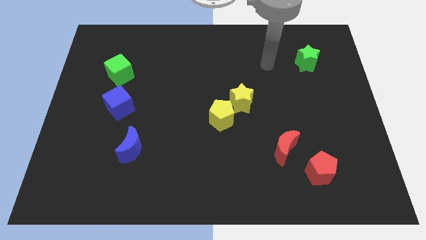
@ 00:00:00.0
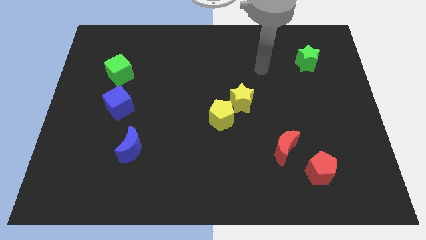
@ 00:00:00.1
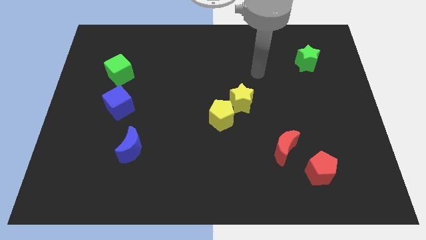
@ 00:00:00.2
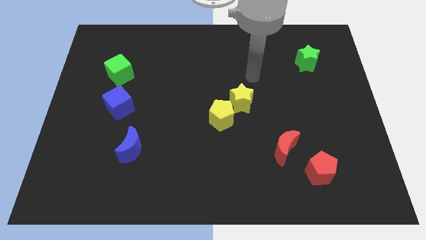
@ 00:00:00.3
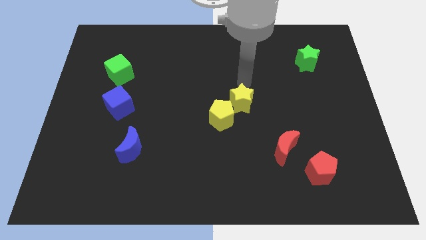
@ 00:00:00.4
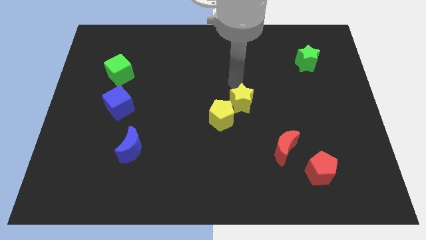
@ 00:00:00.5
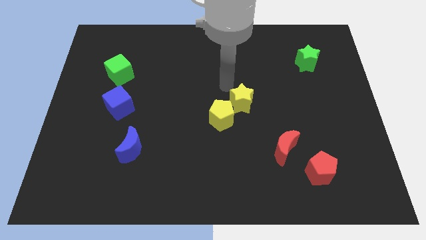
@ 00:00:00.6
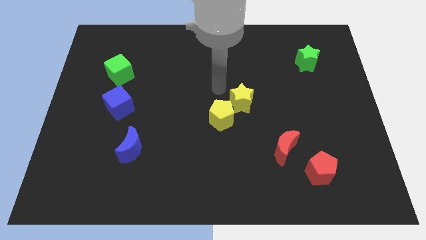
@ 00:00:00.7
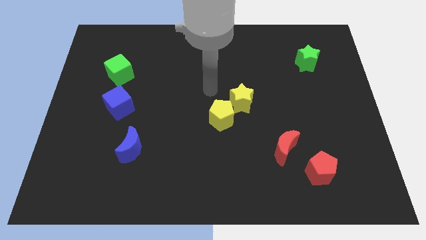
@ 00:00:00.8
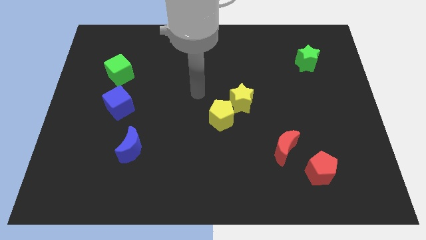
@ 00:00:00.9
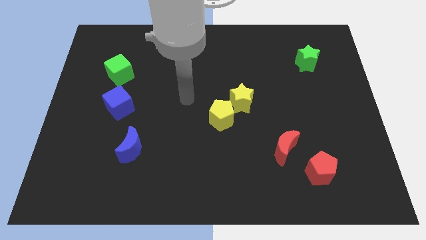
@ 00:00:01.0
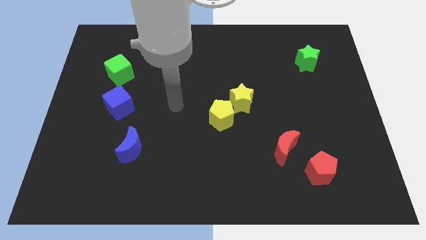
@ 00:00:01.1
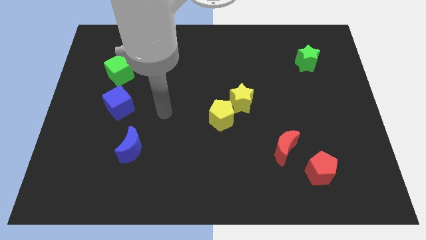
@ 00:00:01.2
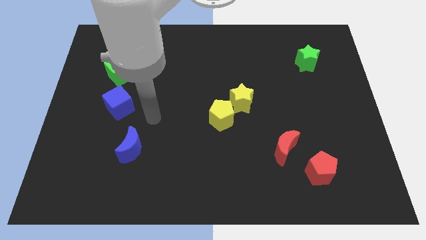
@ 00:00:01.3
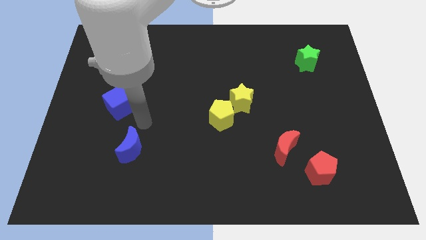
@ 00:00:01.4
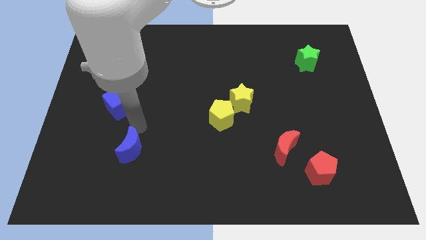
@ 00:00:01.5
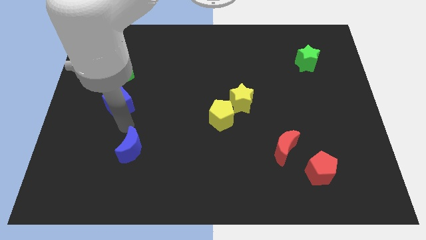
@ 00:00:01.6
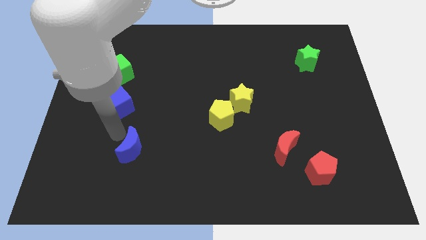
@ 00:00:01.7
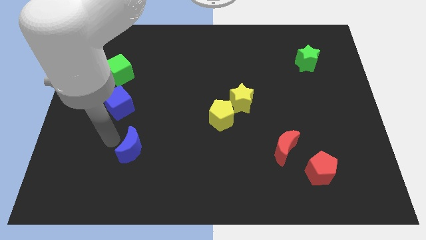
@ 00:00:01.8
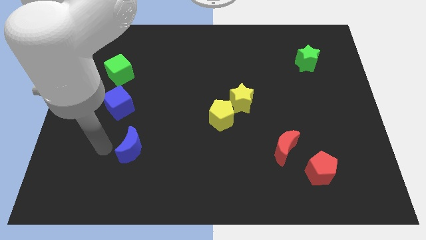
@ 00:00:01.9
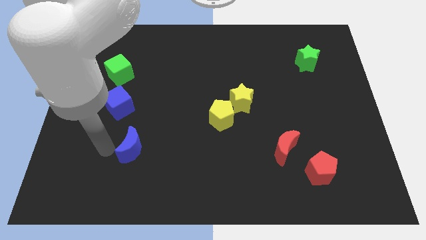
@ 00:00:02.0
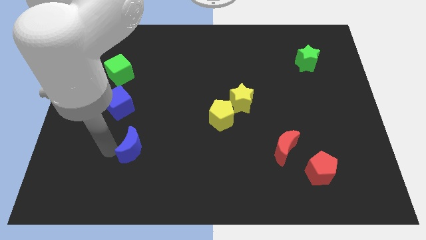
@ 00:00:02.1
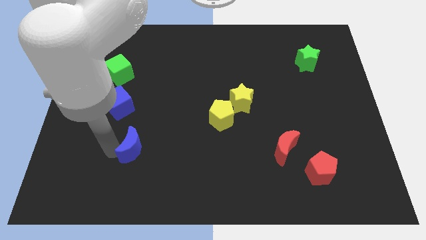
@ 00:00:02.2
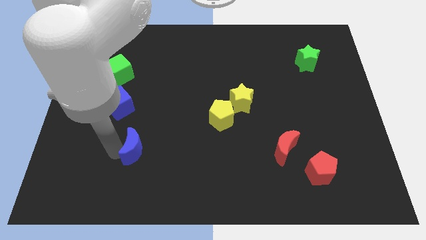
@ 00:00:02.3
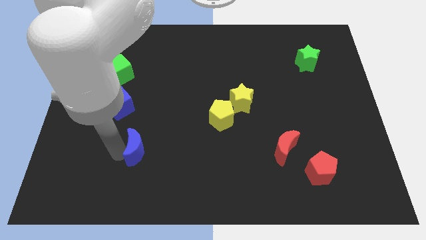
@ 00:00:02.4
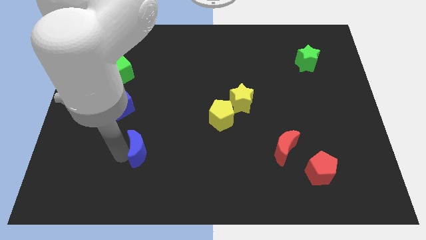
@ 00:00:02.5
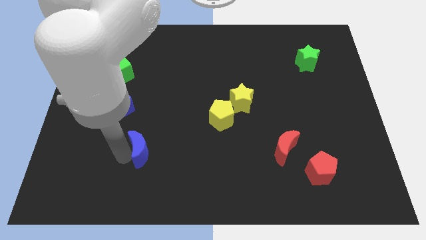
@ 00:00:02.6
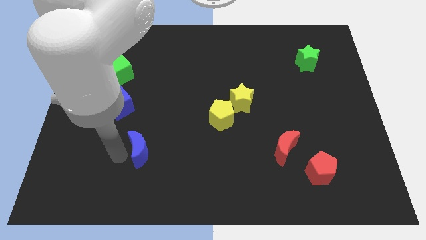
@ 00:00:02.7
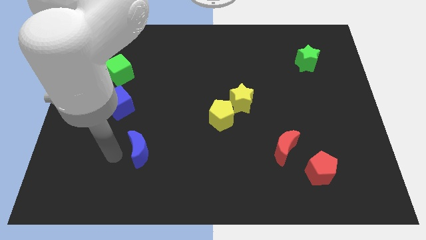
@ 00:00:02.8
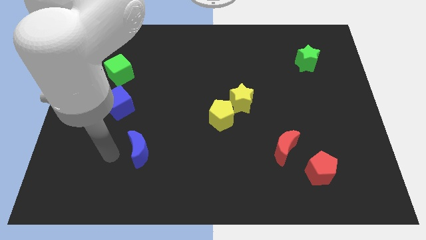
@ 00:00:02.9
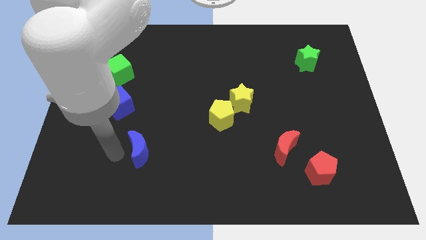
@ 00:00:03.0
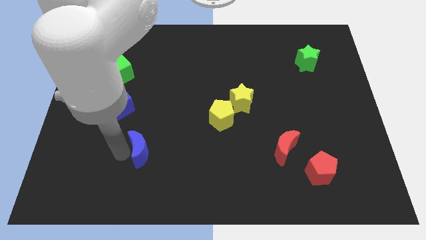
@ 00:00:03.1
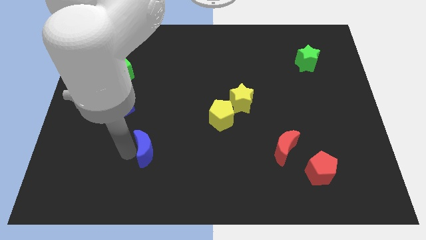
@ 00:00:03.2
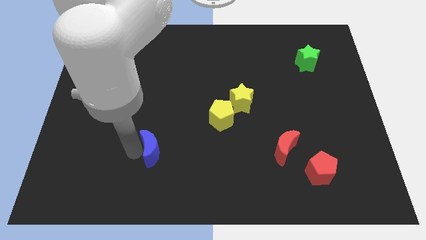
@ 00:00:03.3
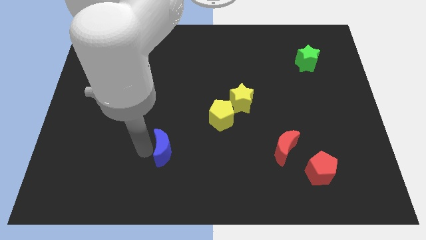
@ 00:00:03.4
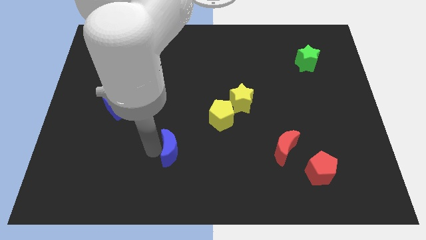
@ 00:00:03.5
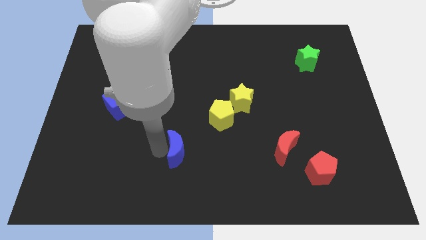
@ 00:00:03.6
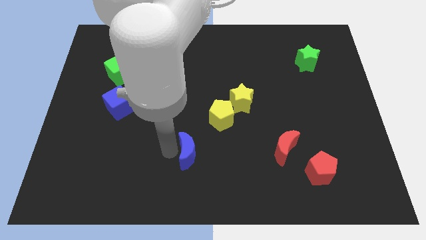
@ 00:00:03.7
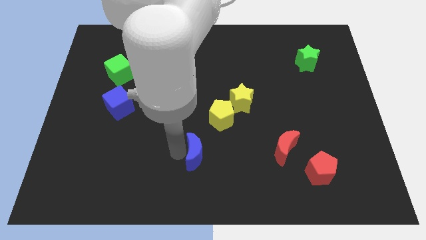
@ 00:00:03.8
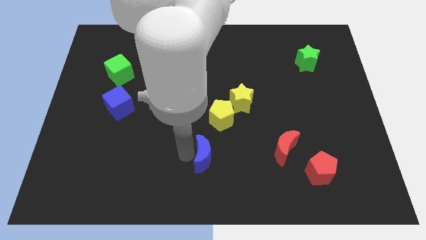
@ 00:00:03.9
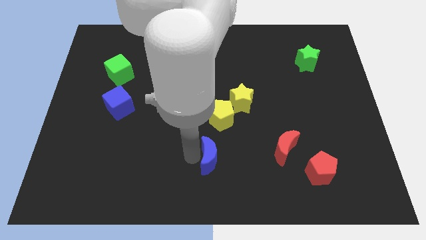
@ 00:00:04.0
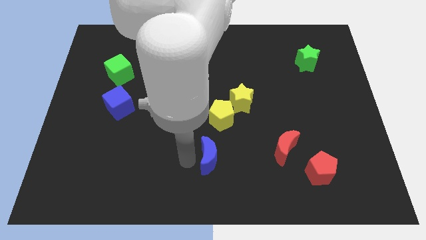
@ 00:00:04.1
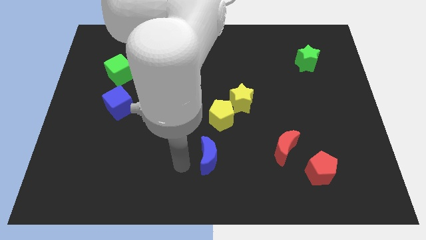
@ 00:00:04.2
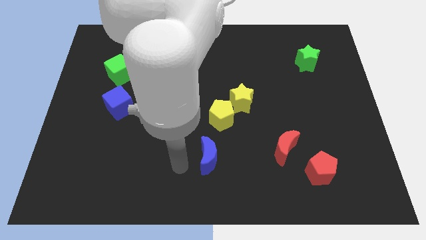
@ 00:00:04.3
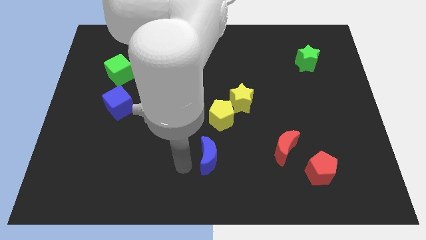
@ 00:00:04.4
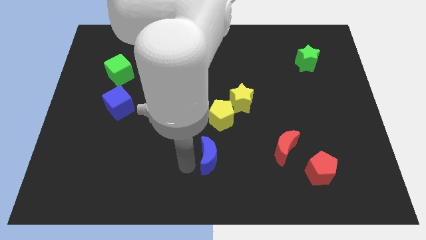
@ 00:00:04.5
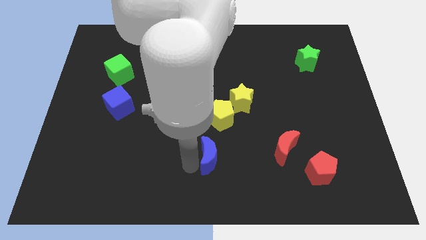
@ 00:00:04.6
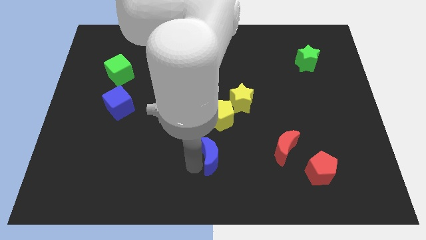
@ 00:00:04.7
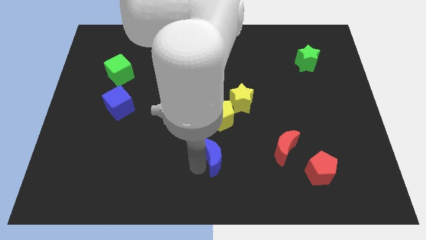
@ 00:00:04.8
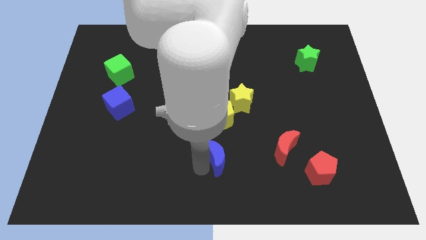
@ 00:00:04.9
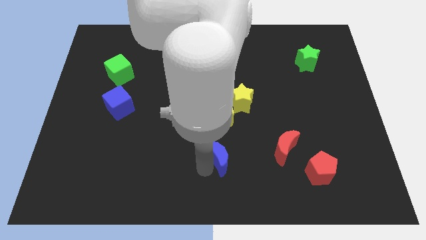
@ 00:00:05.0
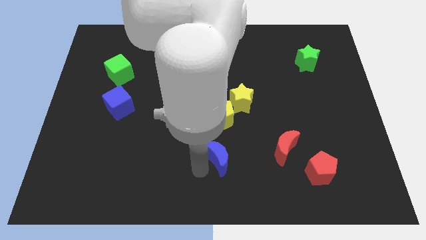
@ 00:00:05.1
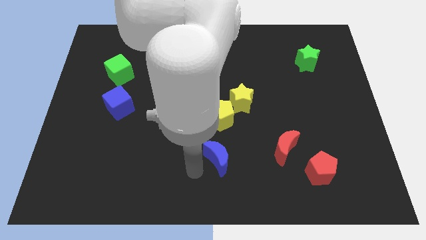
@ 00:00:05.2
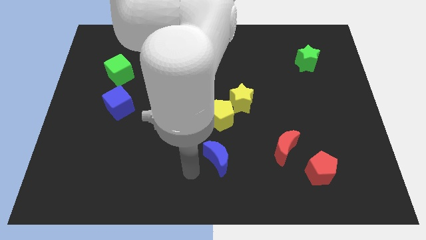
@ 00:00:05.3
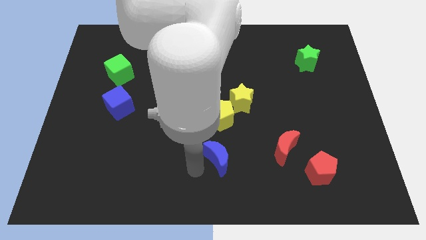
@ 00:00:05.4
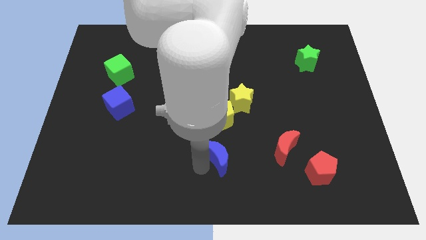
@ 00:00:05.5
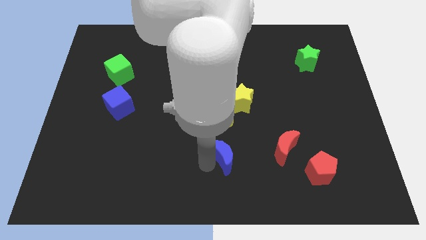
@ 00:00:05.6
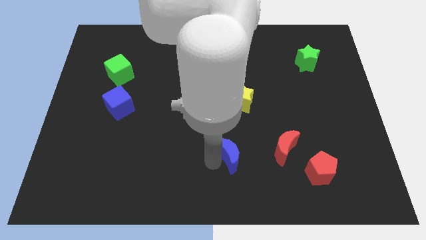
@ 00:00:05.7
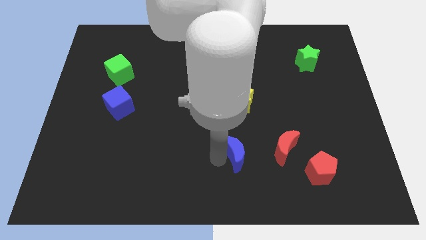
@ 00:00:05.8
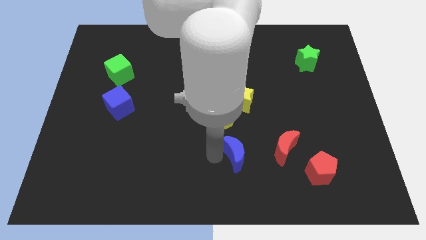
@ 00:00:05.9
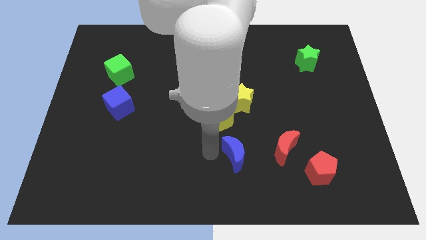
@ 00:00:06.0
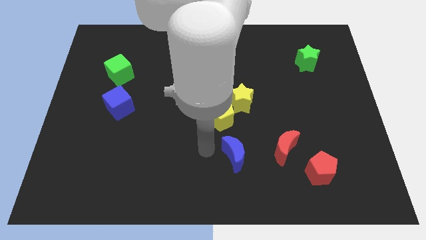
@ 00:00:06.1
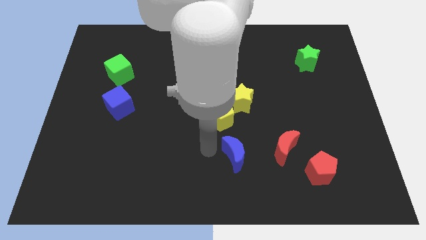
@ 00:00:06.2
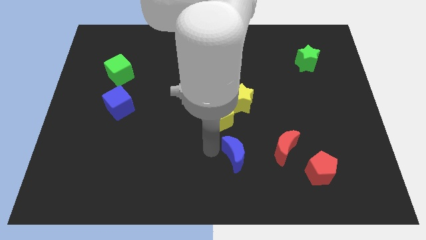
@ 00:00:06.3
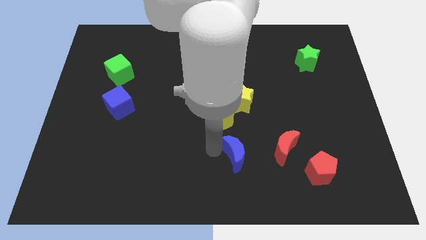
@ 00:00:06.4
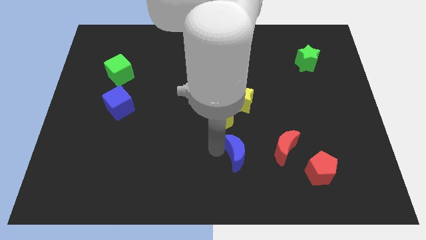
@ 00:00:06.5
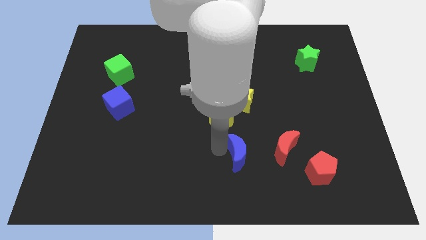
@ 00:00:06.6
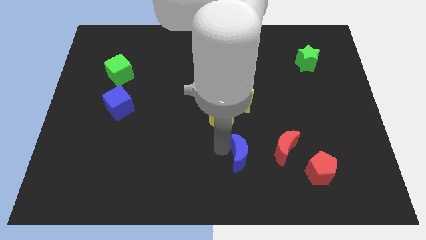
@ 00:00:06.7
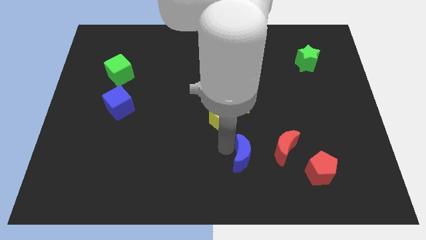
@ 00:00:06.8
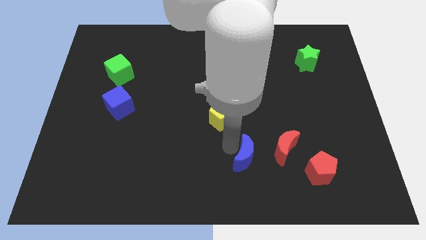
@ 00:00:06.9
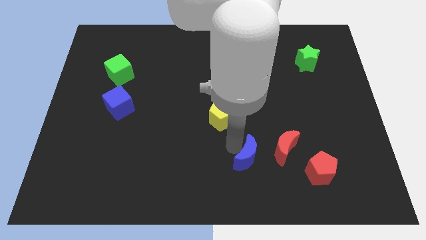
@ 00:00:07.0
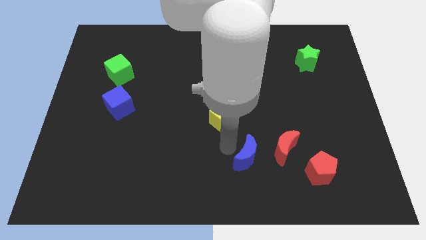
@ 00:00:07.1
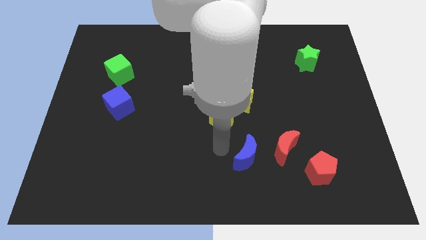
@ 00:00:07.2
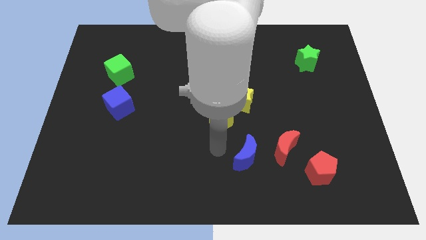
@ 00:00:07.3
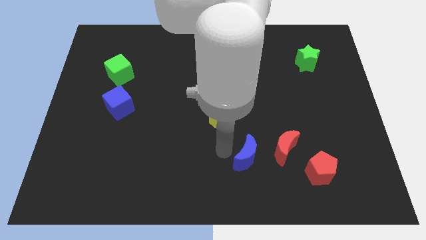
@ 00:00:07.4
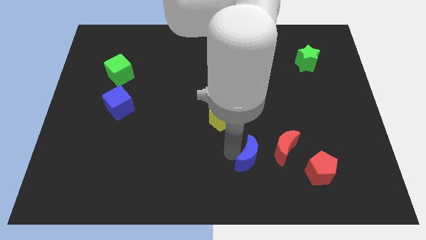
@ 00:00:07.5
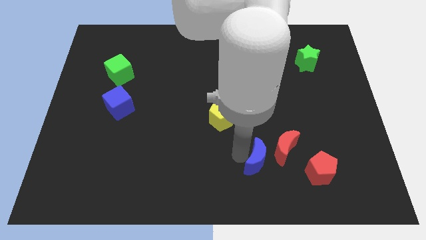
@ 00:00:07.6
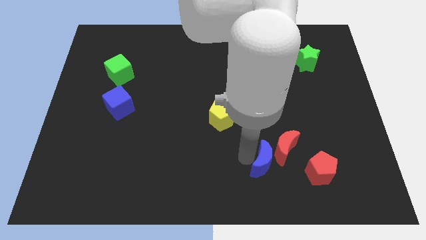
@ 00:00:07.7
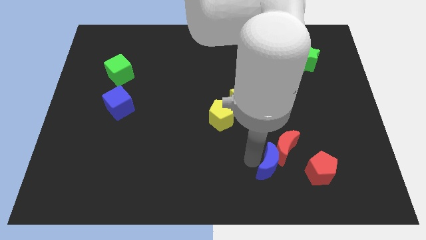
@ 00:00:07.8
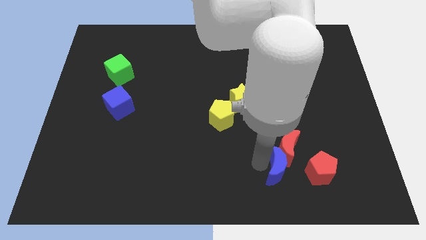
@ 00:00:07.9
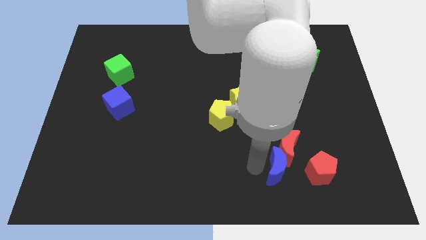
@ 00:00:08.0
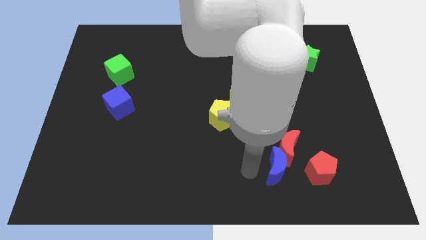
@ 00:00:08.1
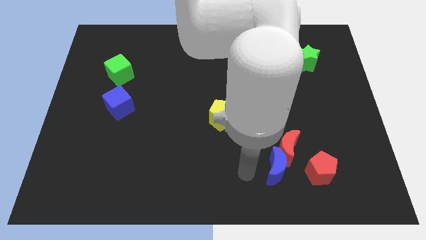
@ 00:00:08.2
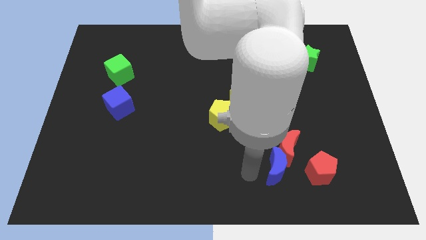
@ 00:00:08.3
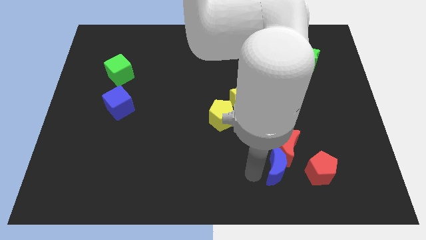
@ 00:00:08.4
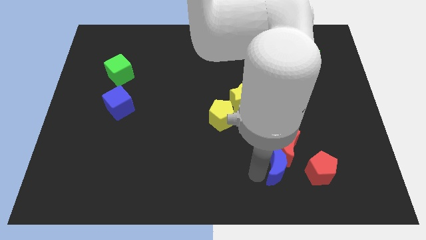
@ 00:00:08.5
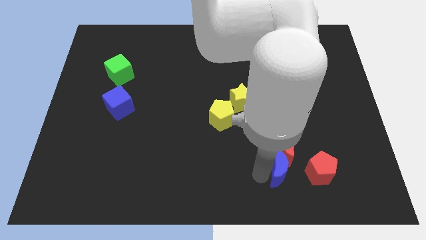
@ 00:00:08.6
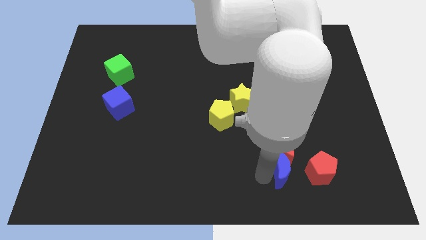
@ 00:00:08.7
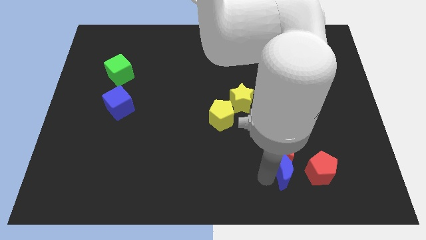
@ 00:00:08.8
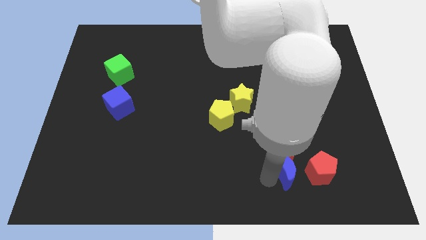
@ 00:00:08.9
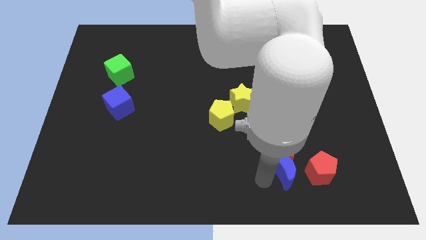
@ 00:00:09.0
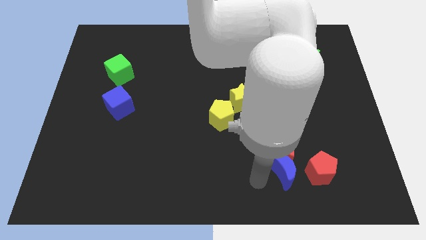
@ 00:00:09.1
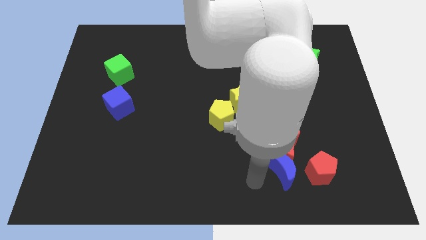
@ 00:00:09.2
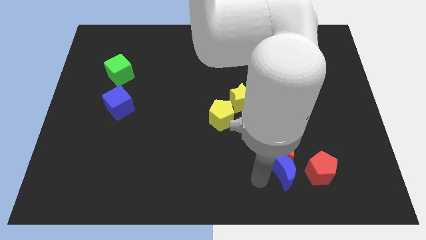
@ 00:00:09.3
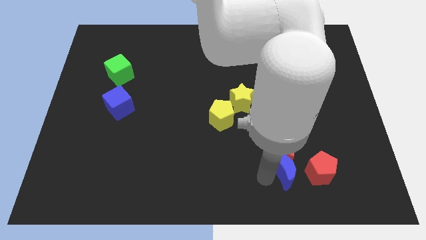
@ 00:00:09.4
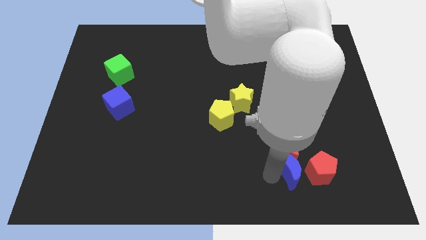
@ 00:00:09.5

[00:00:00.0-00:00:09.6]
put the blue moon close to the red pentagon
